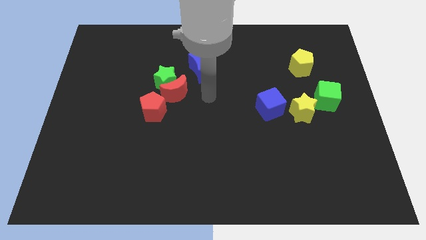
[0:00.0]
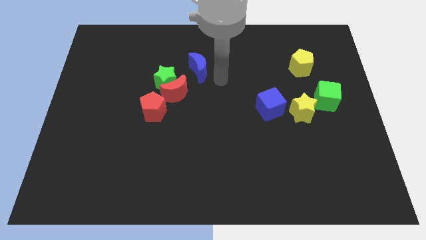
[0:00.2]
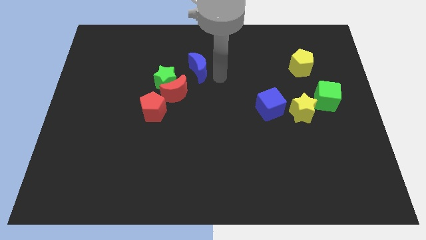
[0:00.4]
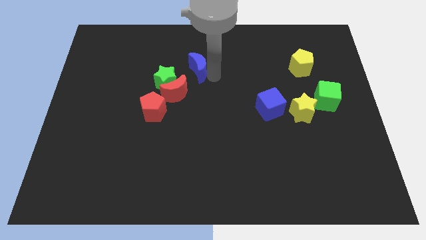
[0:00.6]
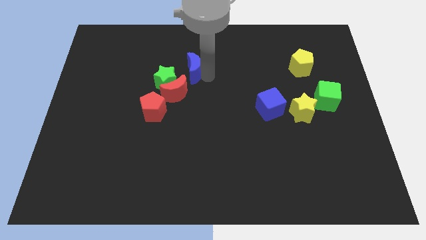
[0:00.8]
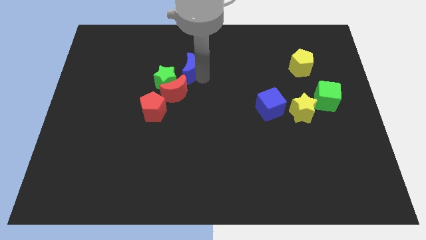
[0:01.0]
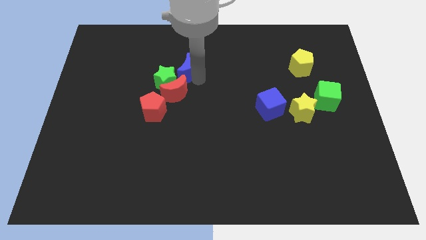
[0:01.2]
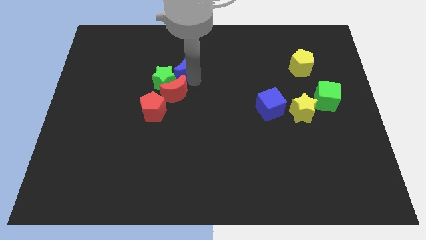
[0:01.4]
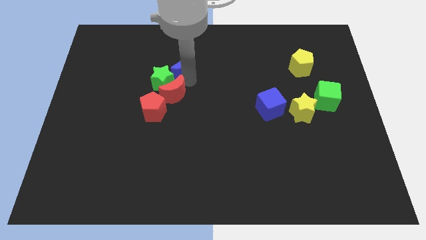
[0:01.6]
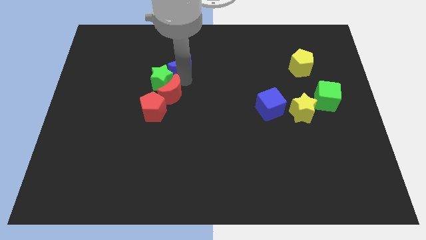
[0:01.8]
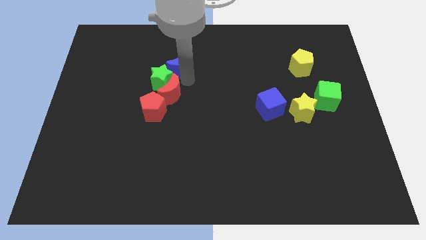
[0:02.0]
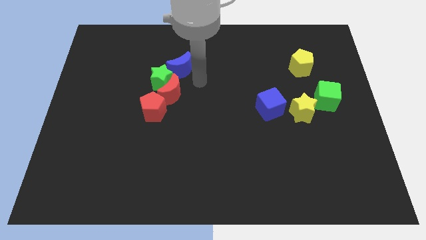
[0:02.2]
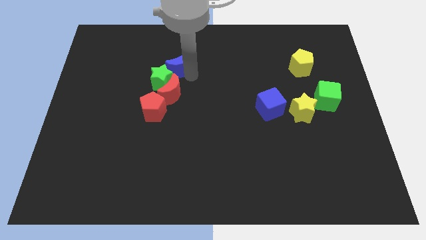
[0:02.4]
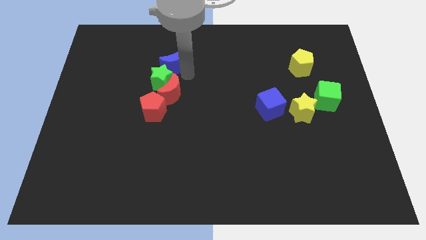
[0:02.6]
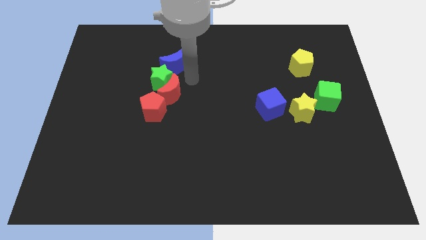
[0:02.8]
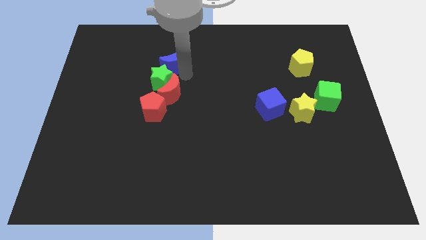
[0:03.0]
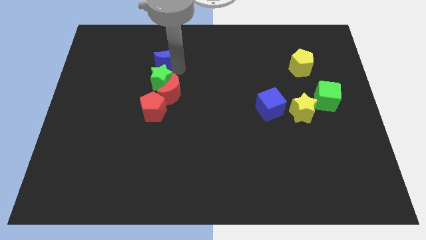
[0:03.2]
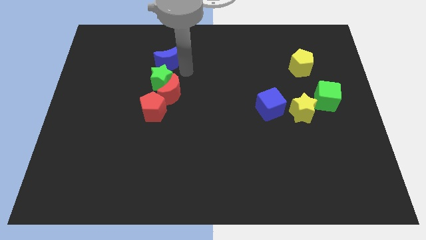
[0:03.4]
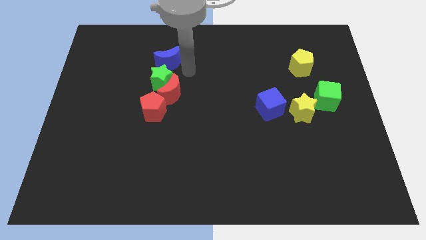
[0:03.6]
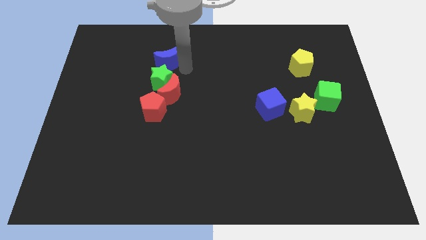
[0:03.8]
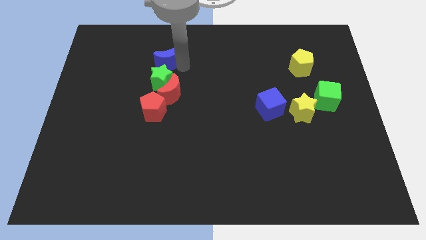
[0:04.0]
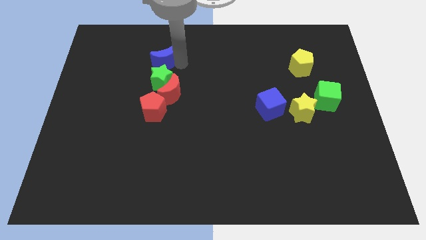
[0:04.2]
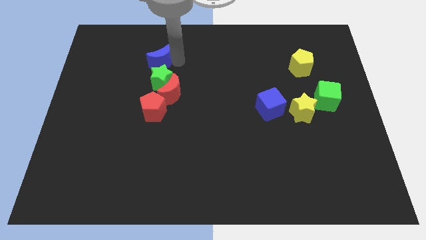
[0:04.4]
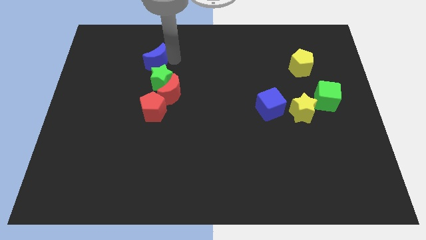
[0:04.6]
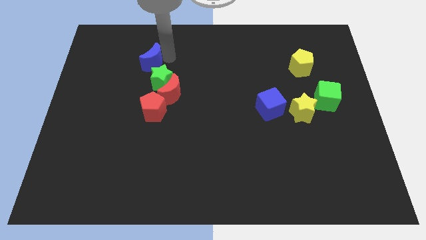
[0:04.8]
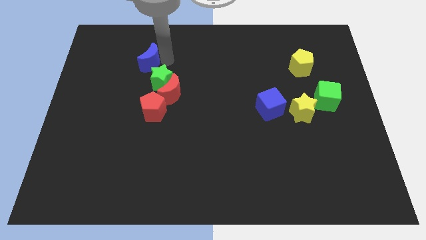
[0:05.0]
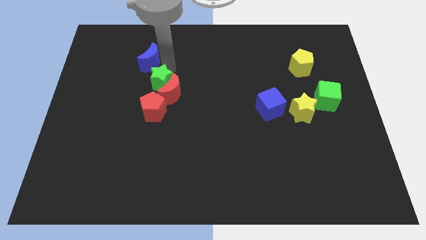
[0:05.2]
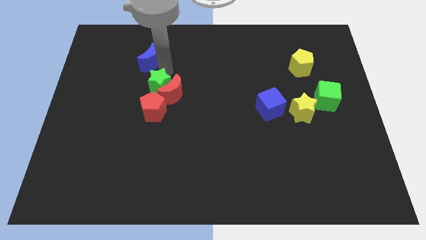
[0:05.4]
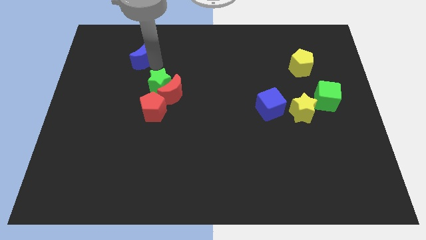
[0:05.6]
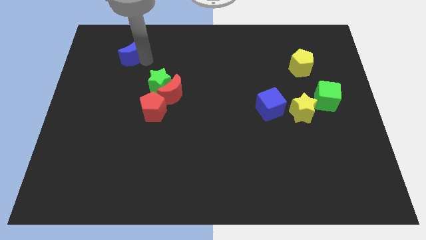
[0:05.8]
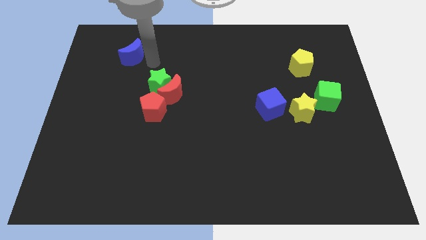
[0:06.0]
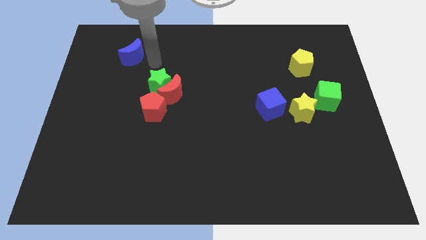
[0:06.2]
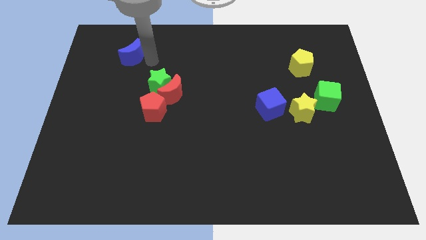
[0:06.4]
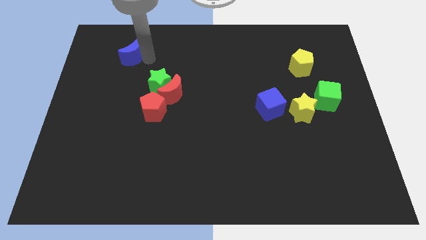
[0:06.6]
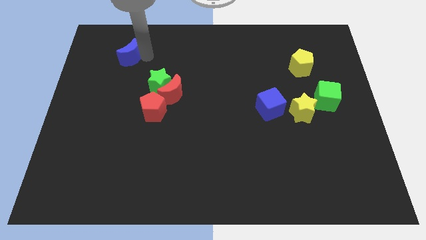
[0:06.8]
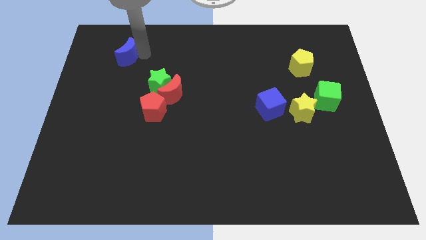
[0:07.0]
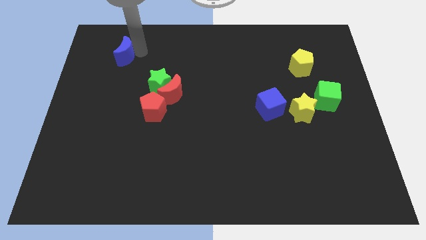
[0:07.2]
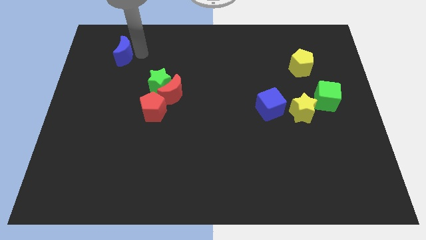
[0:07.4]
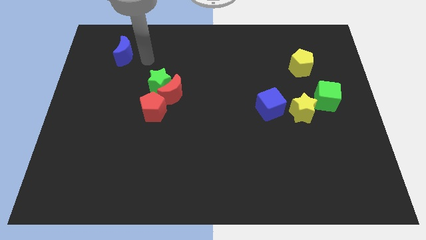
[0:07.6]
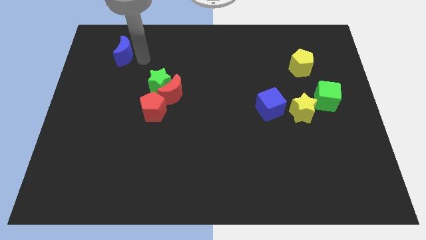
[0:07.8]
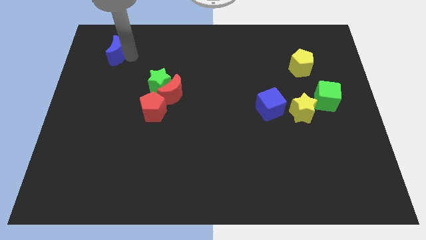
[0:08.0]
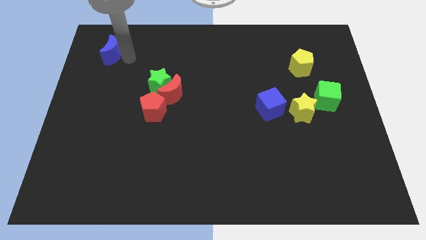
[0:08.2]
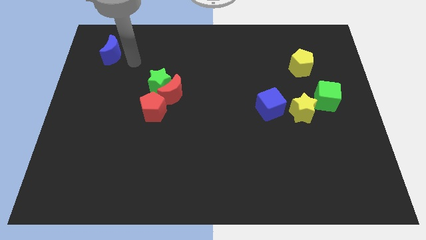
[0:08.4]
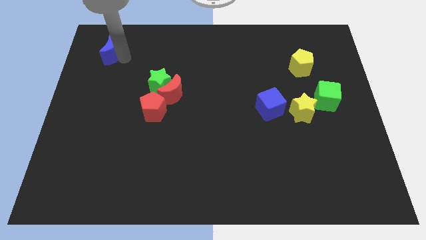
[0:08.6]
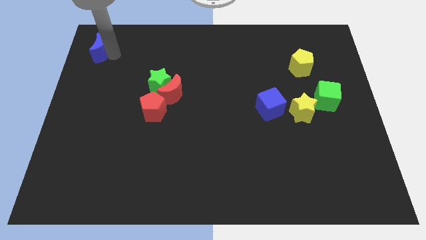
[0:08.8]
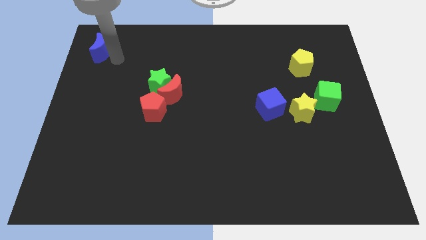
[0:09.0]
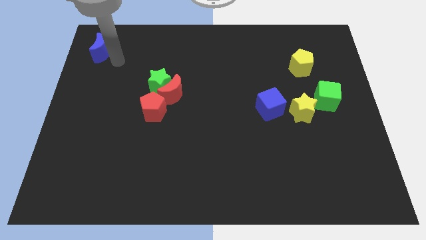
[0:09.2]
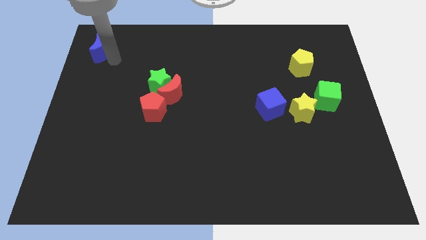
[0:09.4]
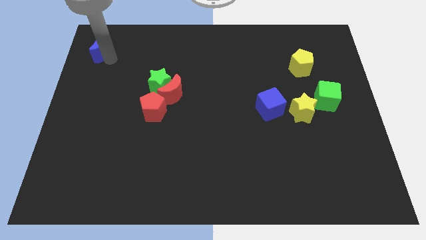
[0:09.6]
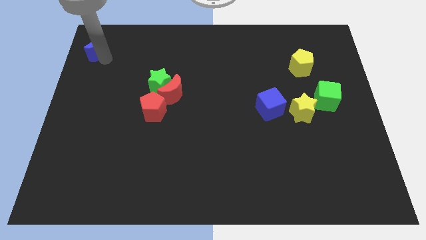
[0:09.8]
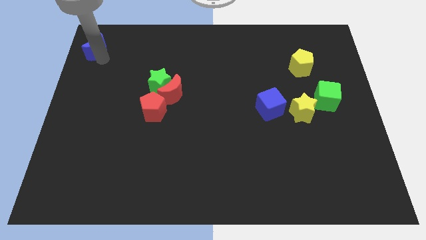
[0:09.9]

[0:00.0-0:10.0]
put the blue moon to the top left of the board

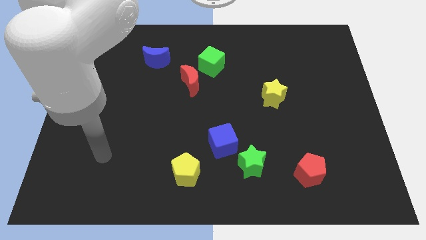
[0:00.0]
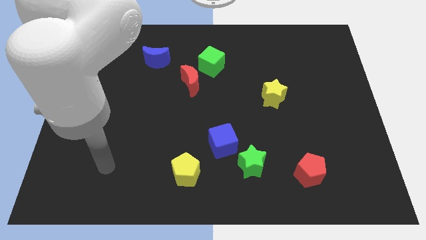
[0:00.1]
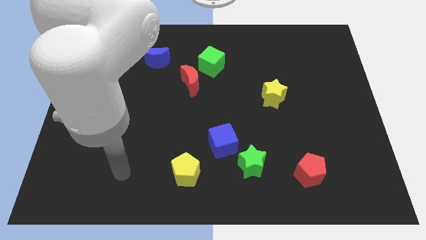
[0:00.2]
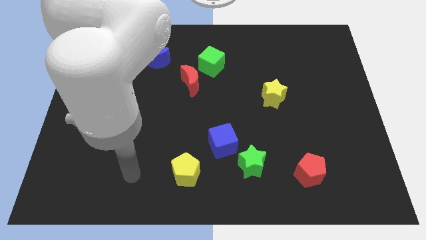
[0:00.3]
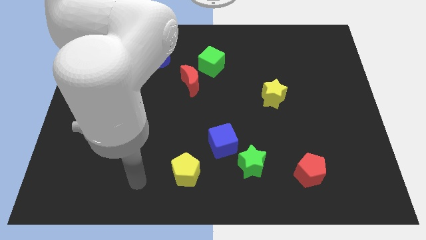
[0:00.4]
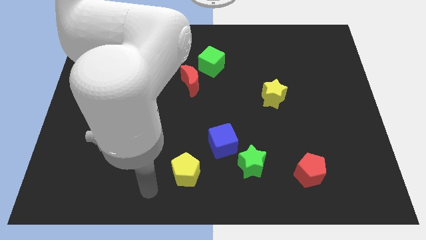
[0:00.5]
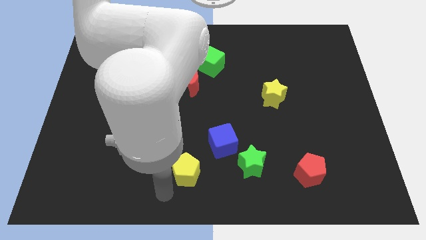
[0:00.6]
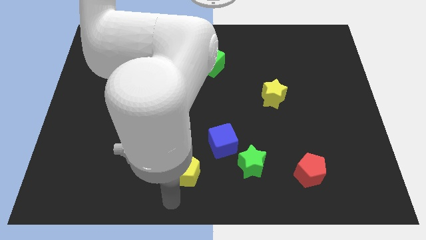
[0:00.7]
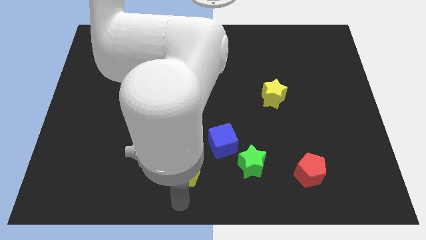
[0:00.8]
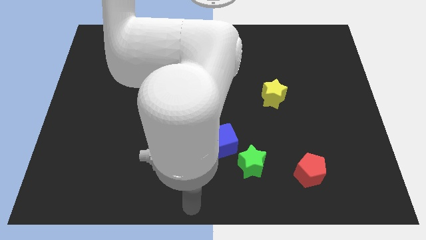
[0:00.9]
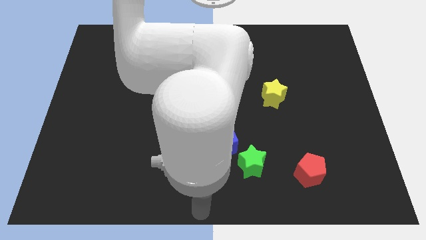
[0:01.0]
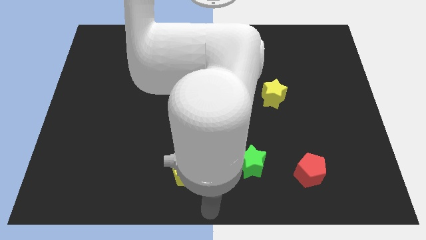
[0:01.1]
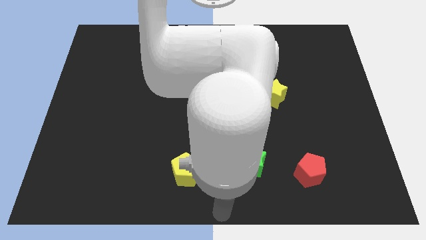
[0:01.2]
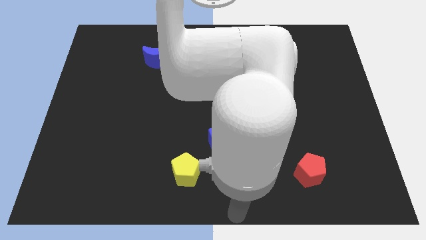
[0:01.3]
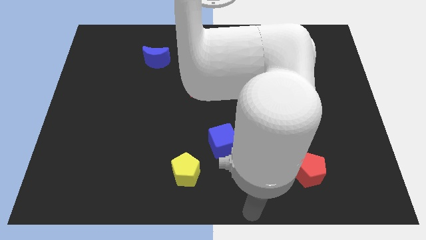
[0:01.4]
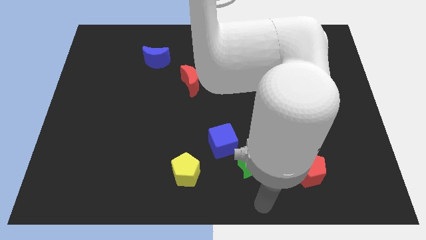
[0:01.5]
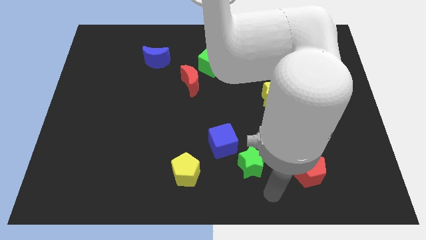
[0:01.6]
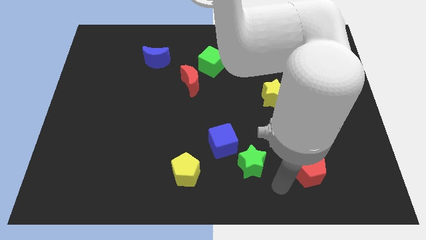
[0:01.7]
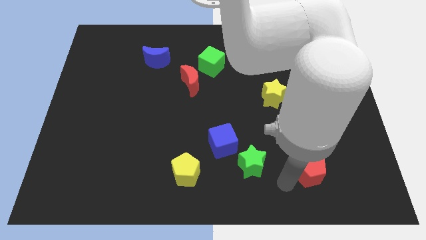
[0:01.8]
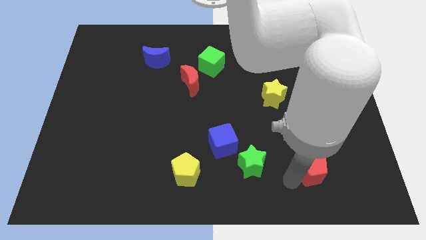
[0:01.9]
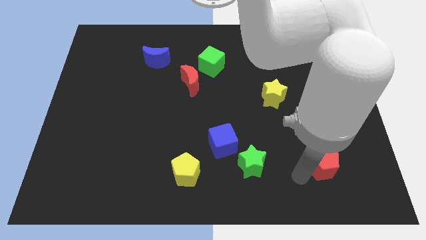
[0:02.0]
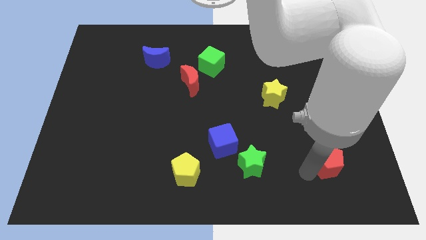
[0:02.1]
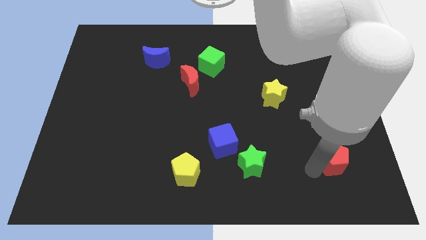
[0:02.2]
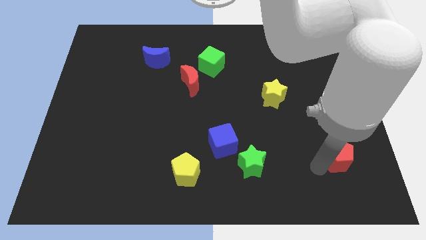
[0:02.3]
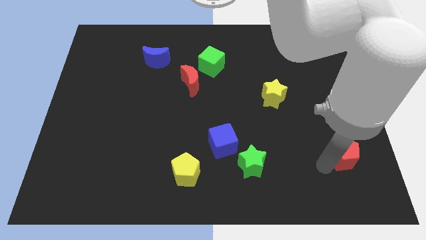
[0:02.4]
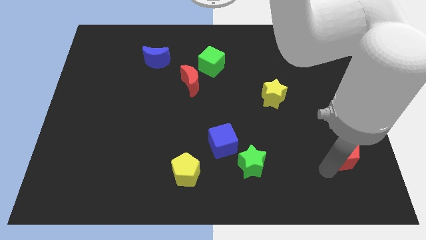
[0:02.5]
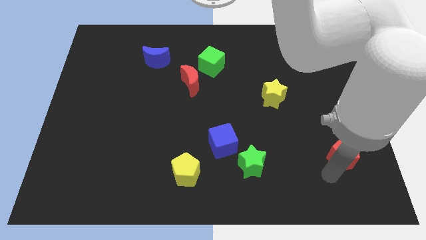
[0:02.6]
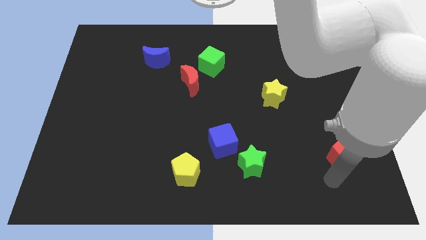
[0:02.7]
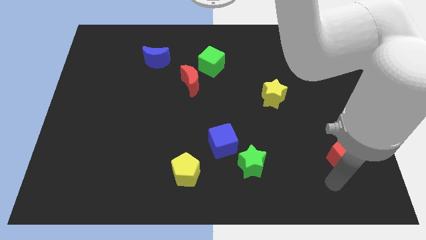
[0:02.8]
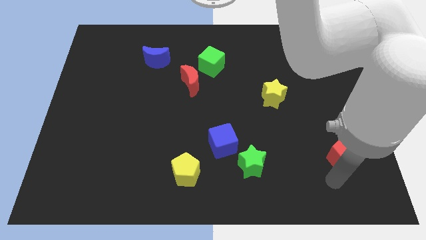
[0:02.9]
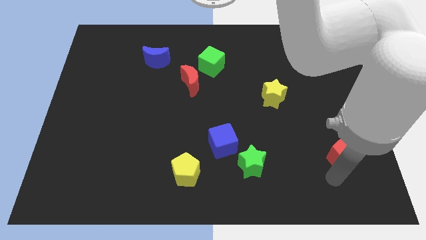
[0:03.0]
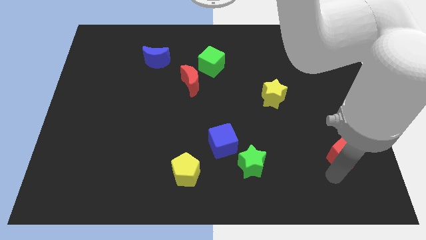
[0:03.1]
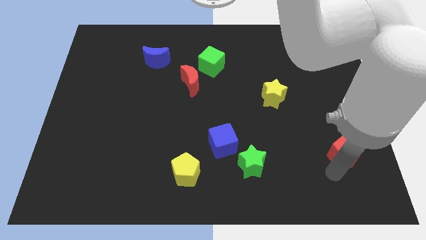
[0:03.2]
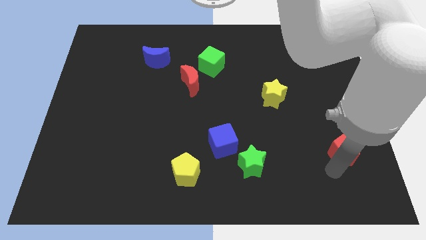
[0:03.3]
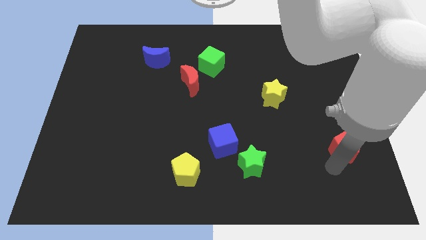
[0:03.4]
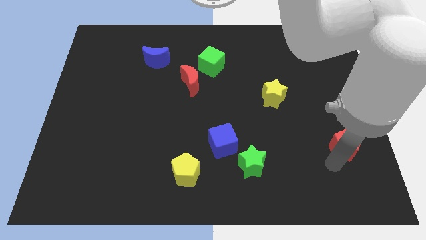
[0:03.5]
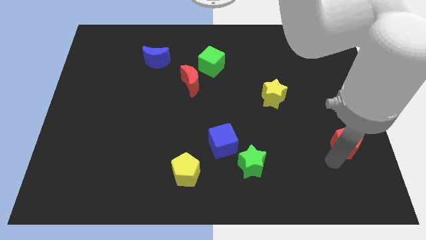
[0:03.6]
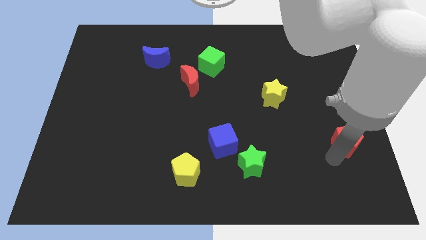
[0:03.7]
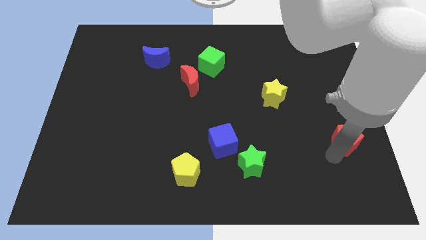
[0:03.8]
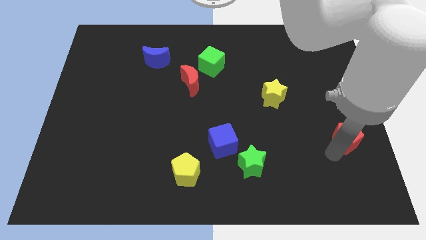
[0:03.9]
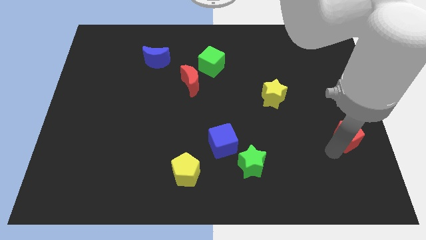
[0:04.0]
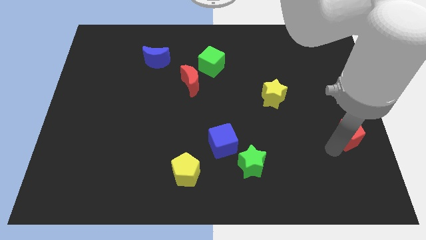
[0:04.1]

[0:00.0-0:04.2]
push the red pentagon to the right side
